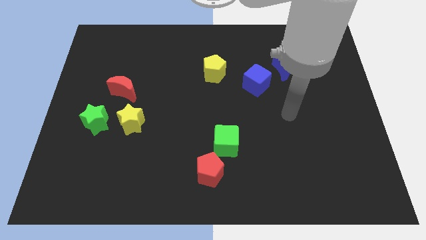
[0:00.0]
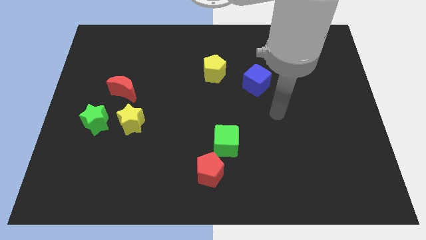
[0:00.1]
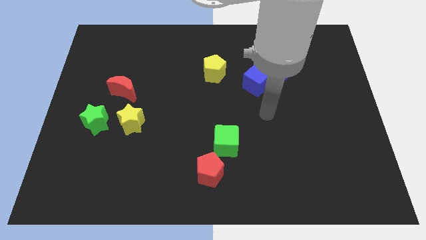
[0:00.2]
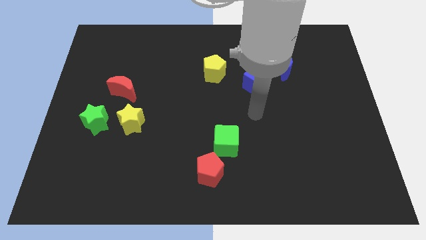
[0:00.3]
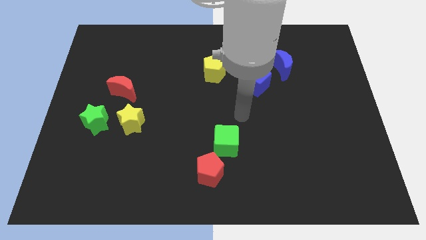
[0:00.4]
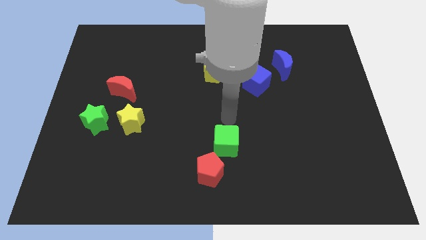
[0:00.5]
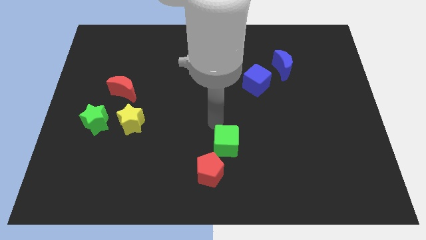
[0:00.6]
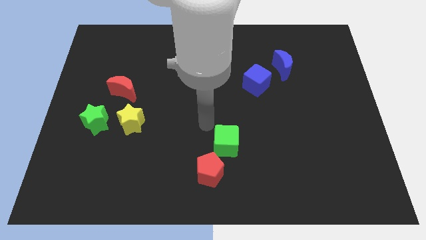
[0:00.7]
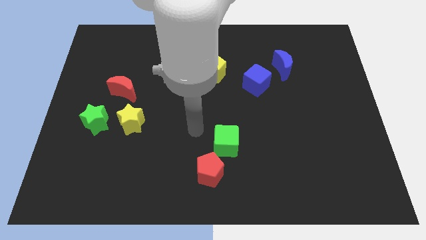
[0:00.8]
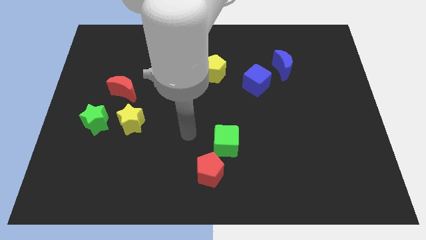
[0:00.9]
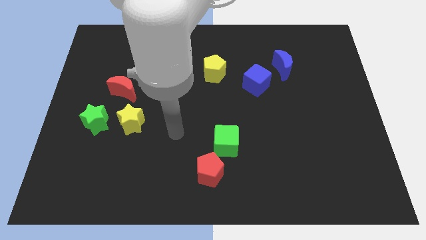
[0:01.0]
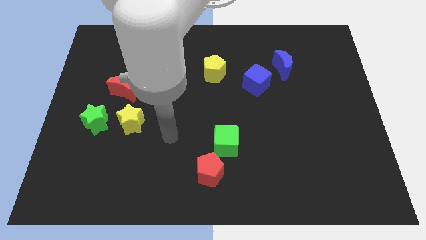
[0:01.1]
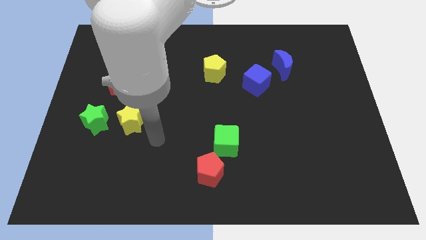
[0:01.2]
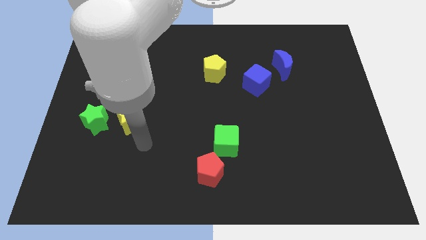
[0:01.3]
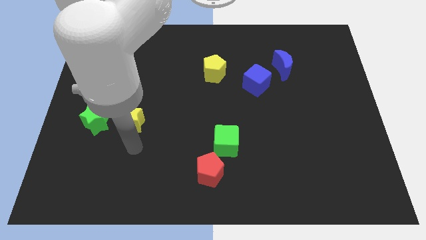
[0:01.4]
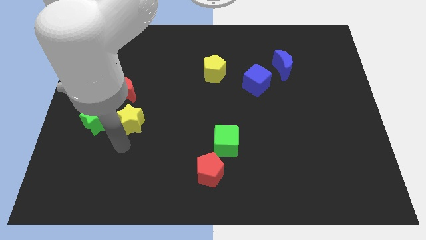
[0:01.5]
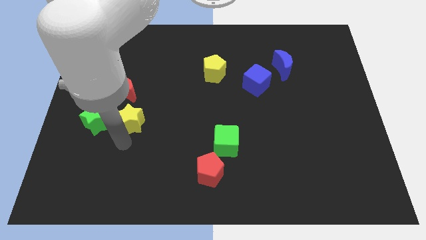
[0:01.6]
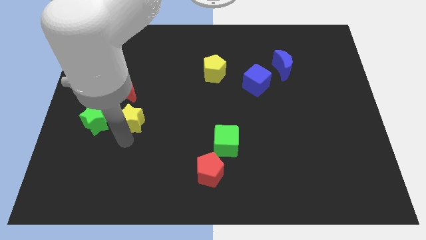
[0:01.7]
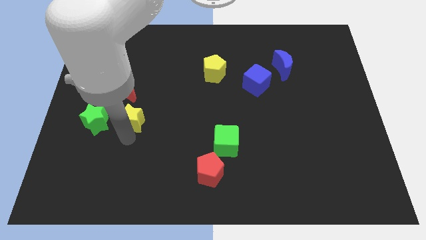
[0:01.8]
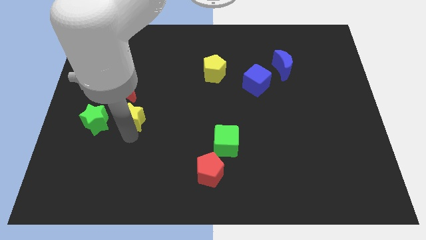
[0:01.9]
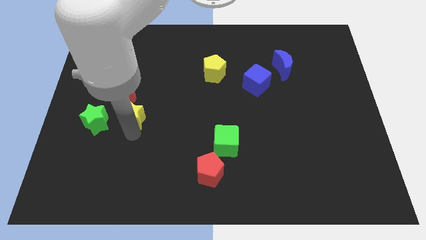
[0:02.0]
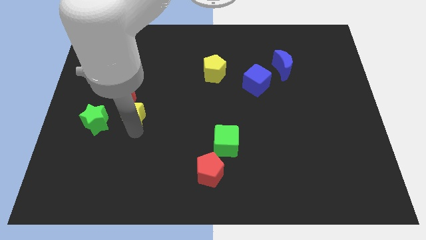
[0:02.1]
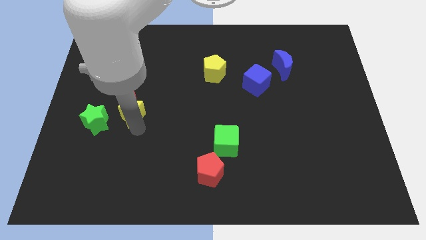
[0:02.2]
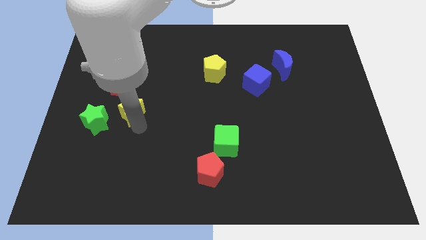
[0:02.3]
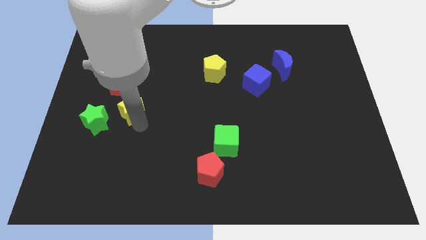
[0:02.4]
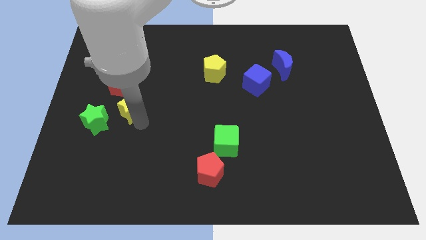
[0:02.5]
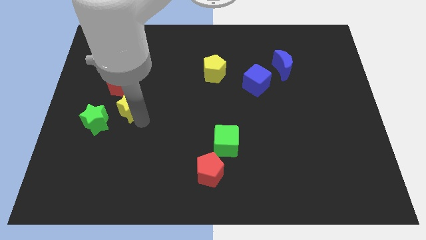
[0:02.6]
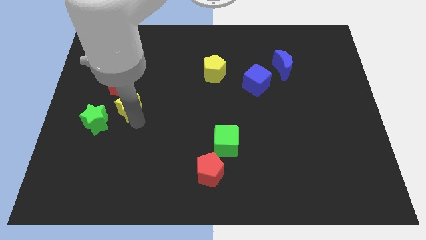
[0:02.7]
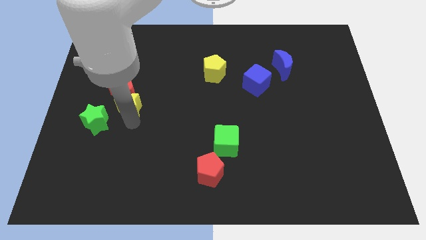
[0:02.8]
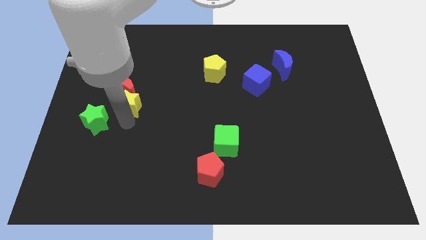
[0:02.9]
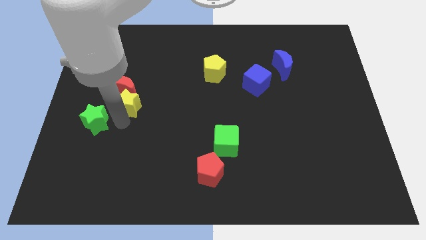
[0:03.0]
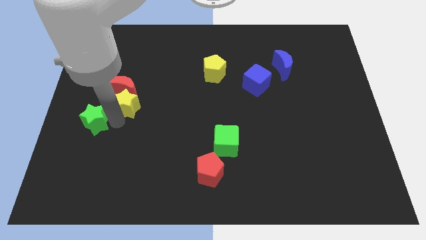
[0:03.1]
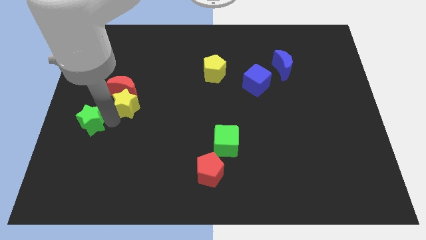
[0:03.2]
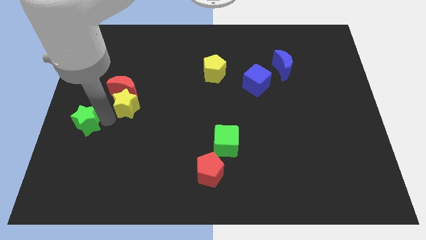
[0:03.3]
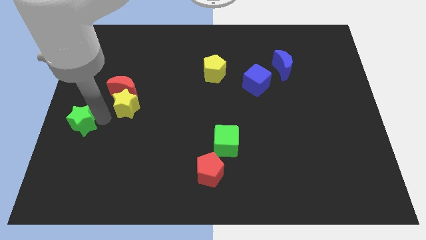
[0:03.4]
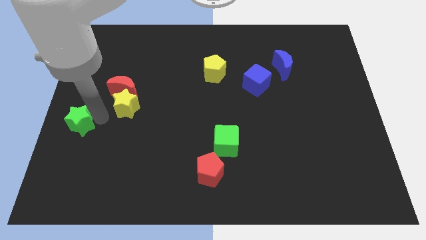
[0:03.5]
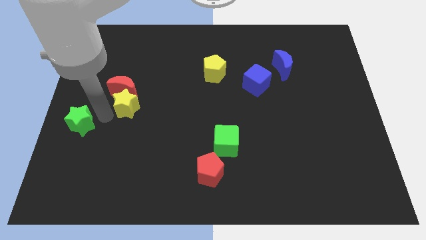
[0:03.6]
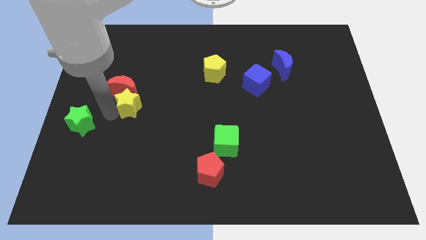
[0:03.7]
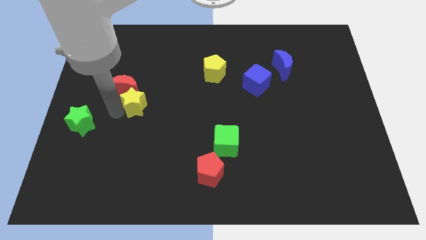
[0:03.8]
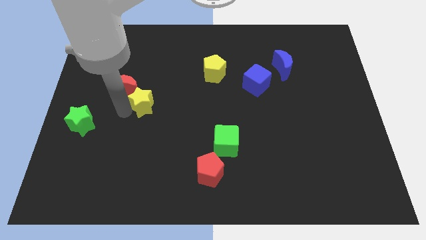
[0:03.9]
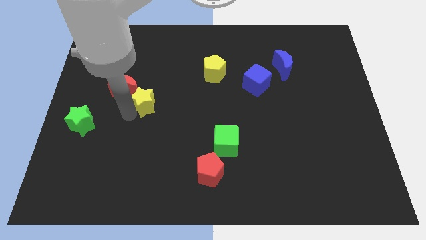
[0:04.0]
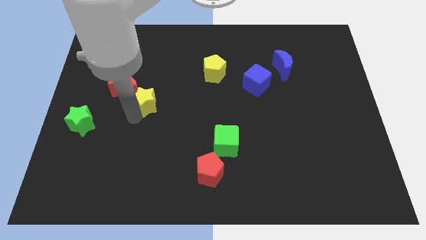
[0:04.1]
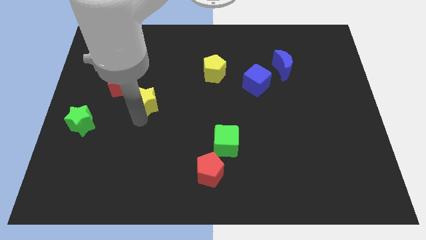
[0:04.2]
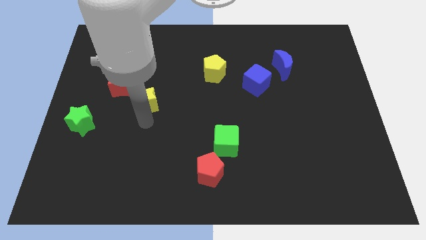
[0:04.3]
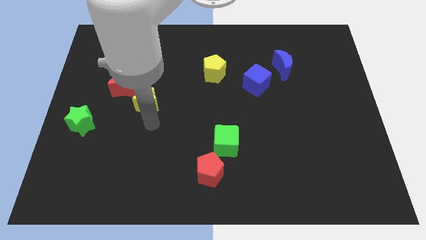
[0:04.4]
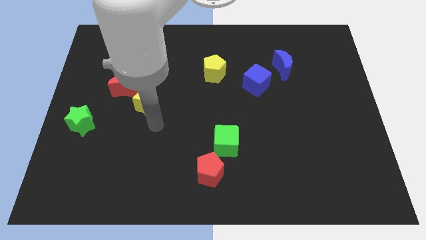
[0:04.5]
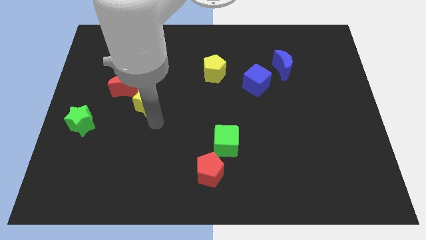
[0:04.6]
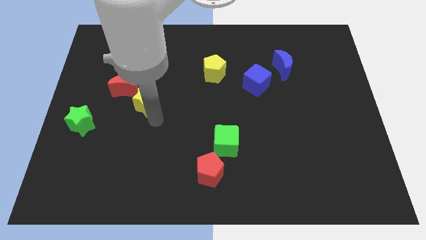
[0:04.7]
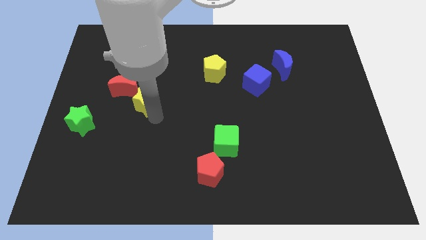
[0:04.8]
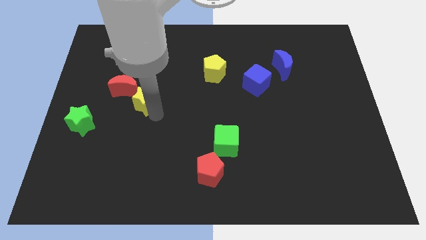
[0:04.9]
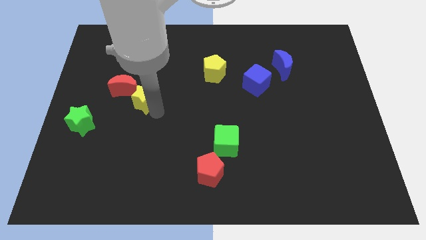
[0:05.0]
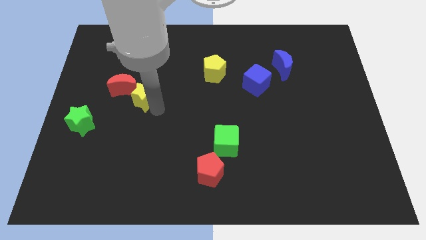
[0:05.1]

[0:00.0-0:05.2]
push the yellow star a little bit up

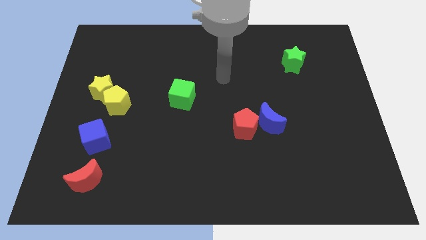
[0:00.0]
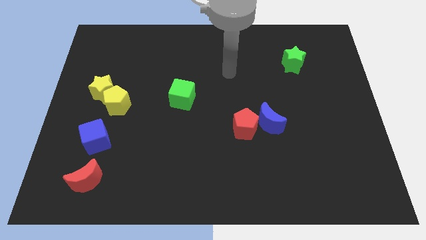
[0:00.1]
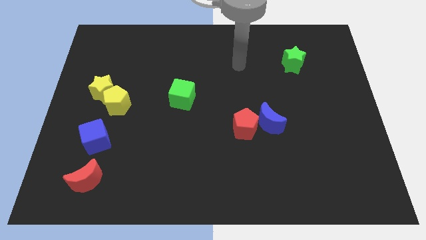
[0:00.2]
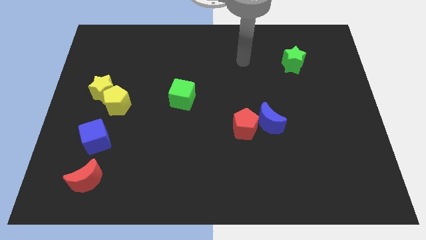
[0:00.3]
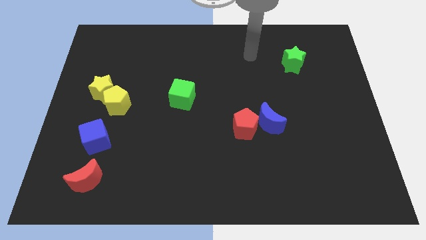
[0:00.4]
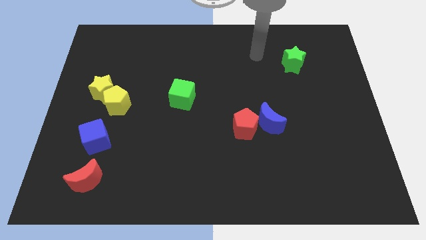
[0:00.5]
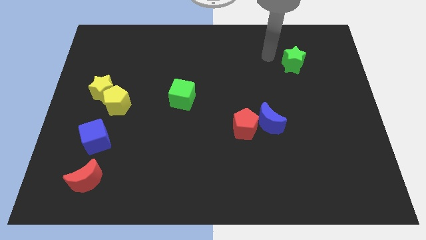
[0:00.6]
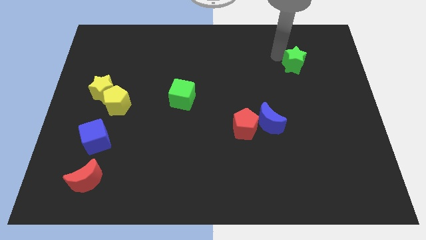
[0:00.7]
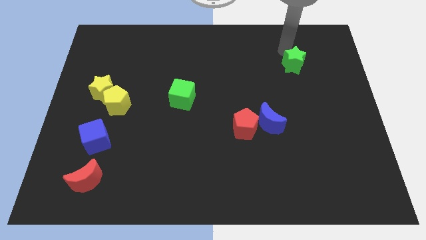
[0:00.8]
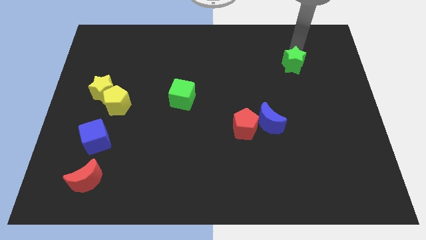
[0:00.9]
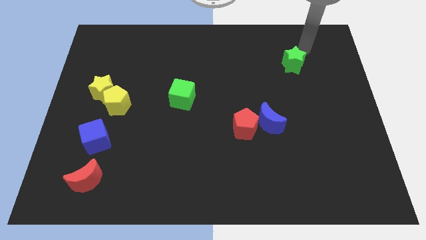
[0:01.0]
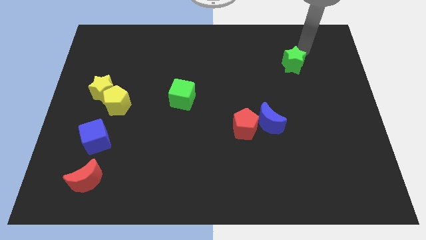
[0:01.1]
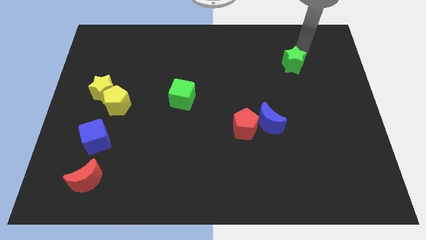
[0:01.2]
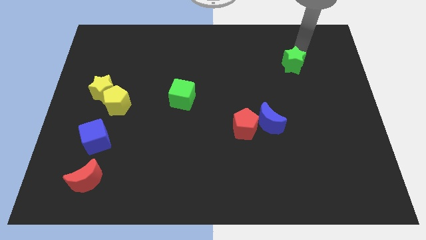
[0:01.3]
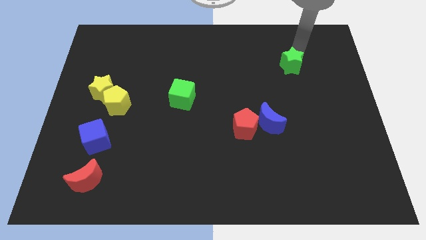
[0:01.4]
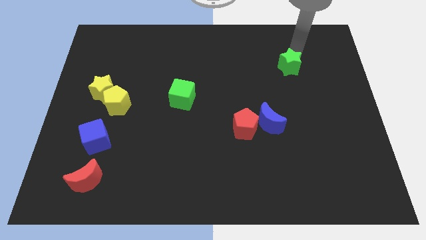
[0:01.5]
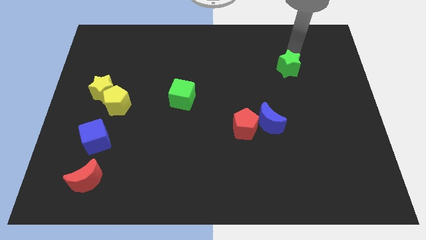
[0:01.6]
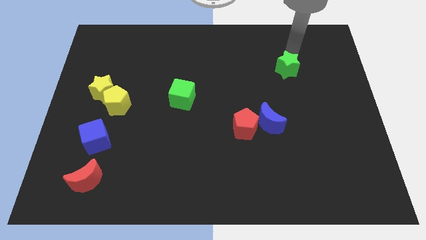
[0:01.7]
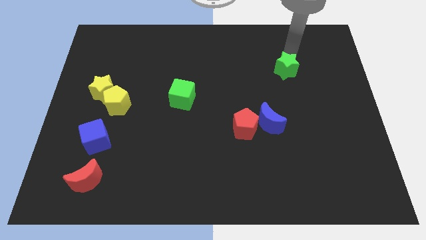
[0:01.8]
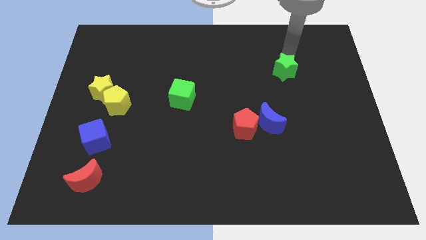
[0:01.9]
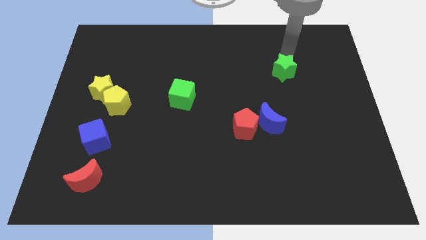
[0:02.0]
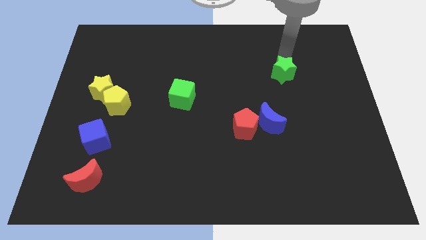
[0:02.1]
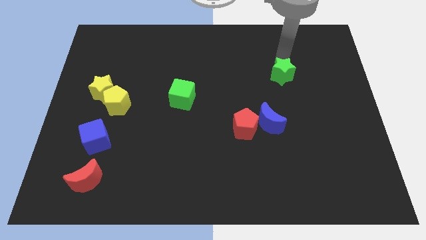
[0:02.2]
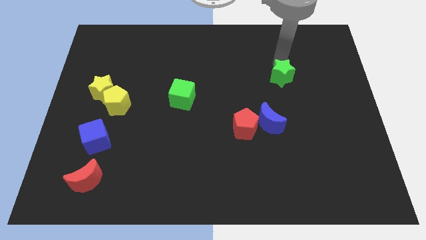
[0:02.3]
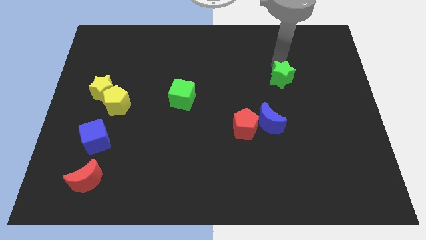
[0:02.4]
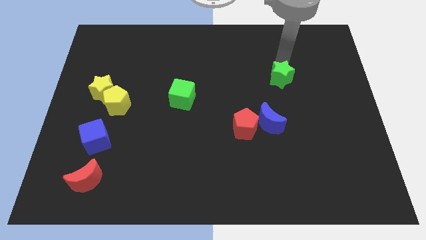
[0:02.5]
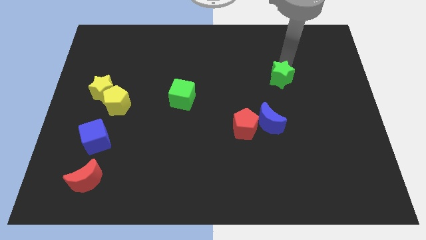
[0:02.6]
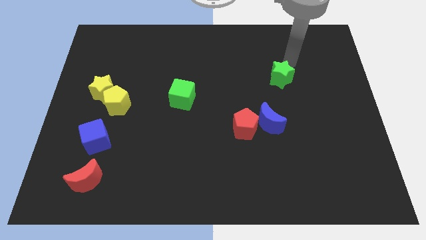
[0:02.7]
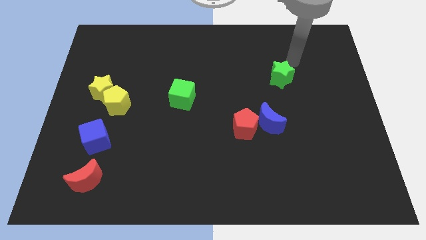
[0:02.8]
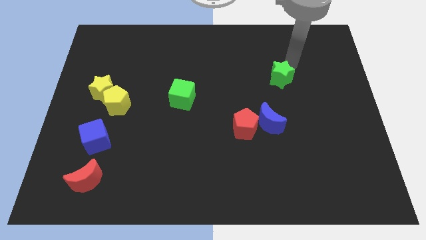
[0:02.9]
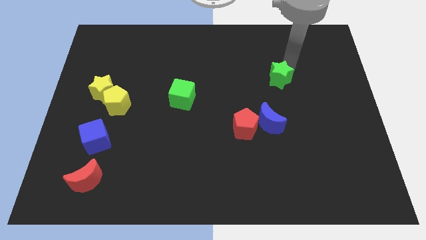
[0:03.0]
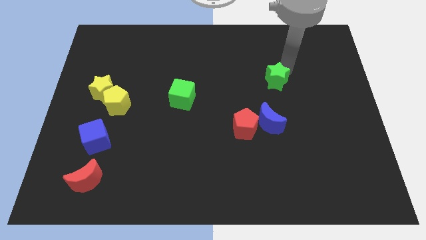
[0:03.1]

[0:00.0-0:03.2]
slide the green star downwards and to the left somewhat
